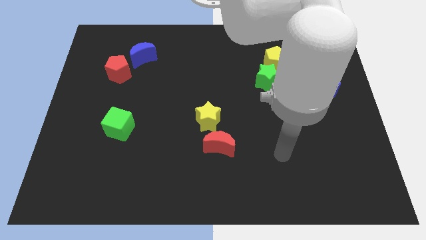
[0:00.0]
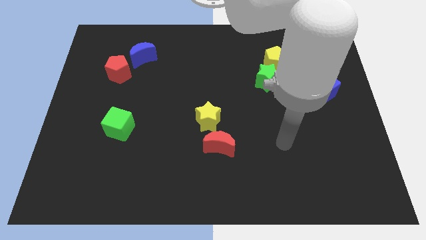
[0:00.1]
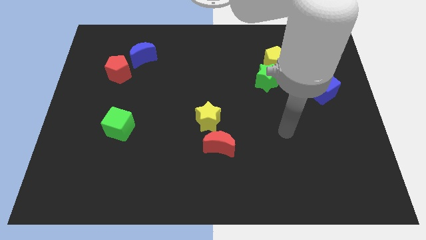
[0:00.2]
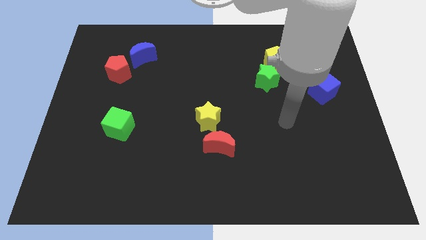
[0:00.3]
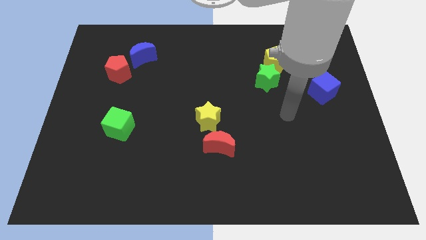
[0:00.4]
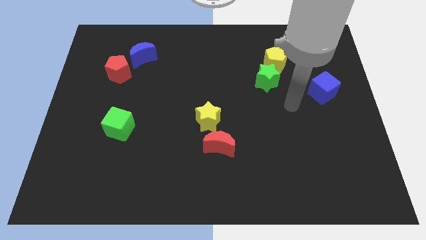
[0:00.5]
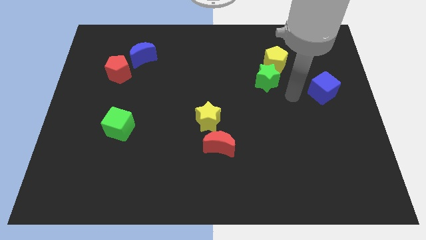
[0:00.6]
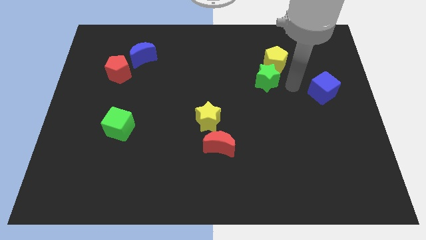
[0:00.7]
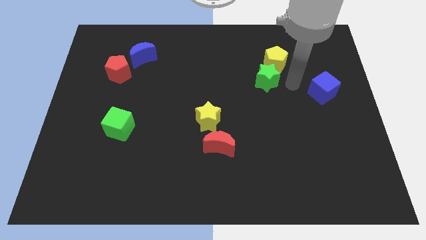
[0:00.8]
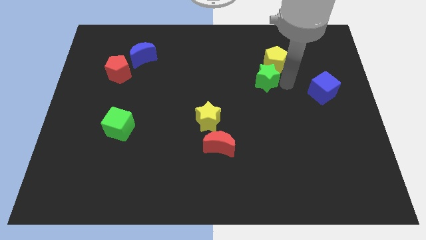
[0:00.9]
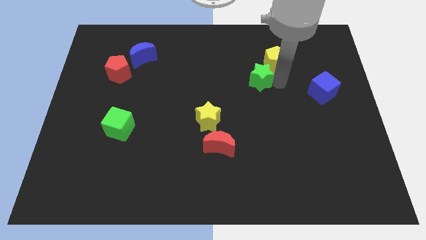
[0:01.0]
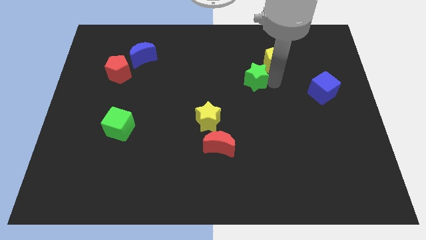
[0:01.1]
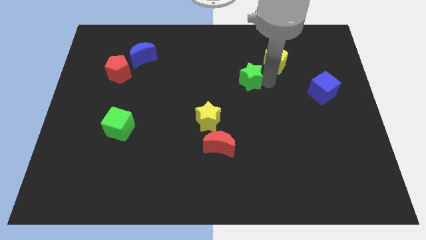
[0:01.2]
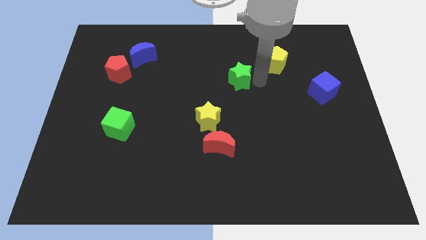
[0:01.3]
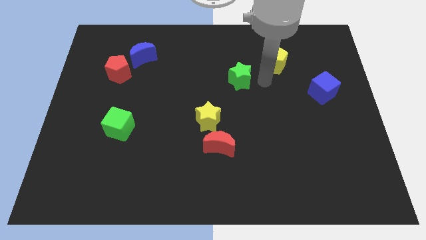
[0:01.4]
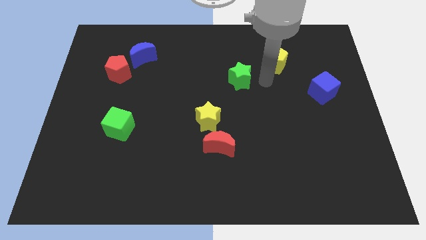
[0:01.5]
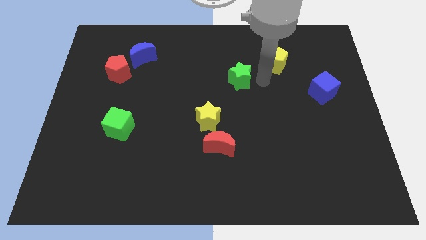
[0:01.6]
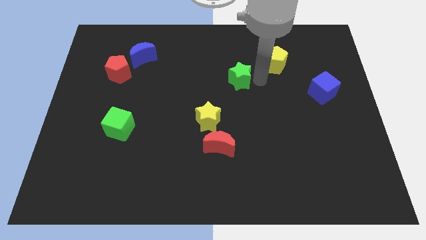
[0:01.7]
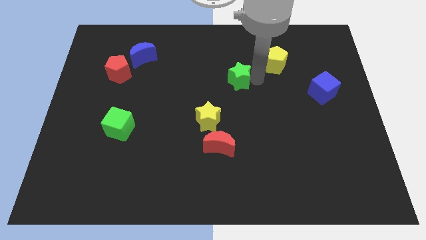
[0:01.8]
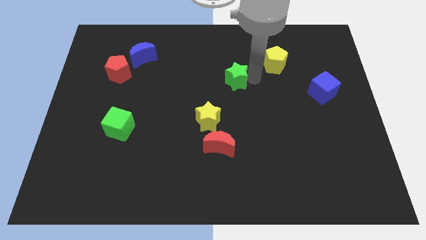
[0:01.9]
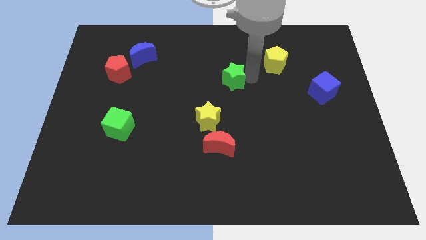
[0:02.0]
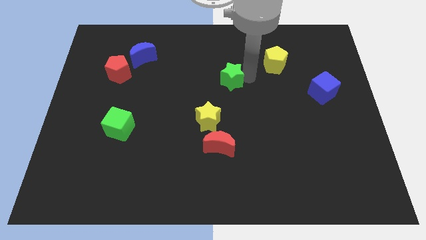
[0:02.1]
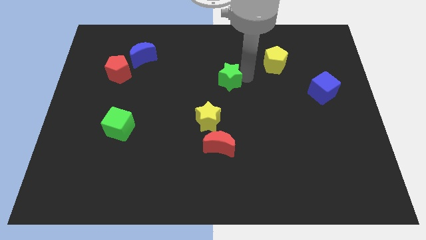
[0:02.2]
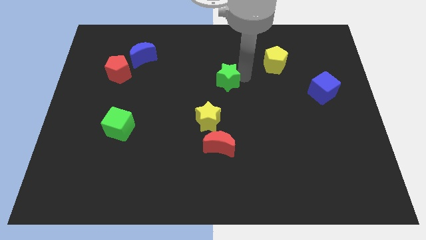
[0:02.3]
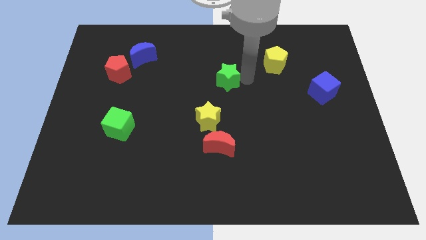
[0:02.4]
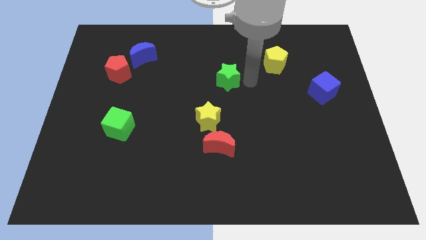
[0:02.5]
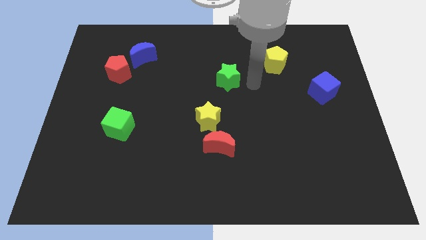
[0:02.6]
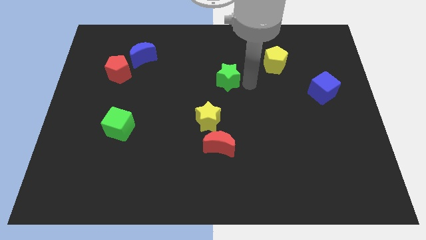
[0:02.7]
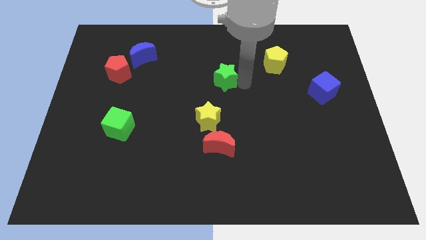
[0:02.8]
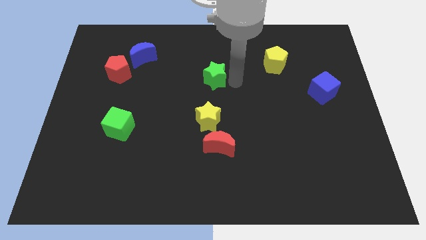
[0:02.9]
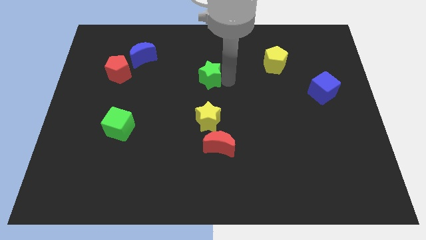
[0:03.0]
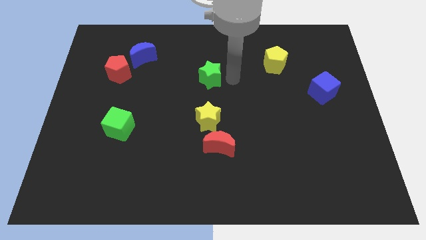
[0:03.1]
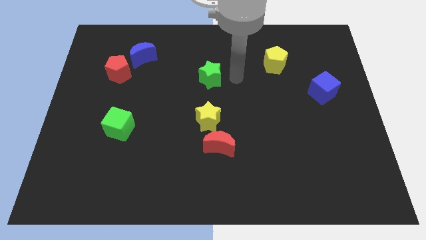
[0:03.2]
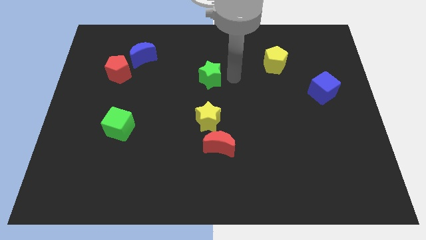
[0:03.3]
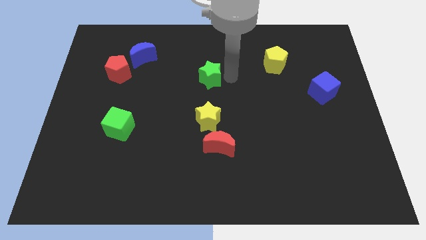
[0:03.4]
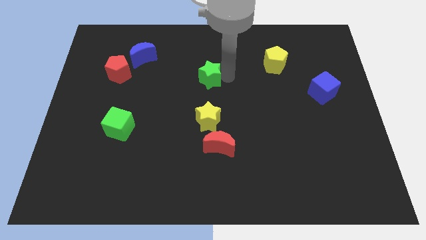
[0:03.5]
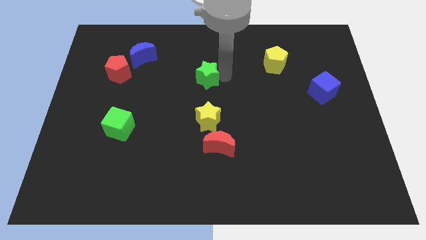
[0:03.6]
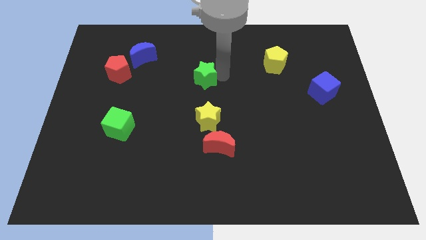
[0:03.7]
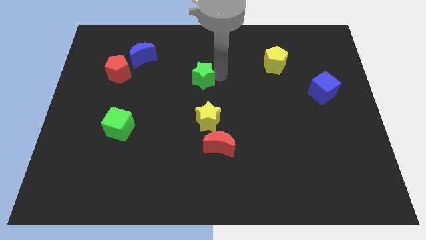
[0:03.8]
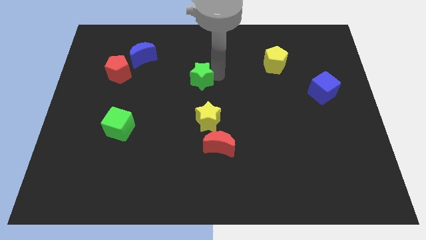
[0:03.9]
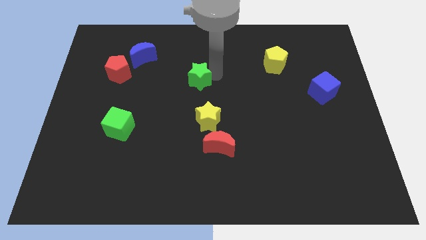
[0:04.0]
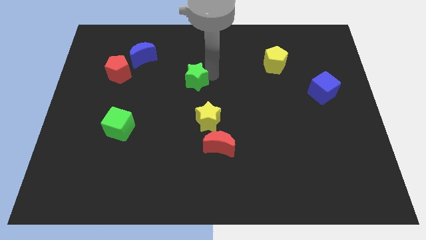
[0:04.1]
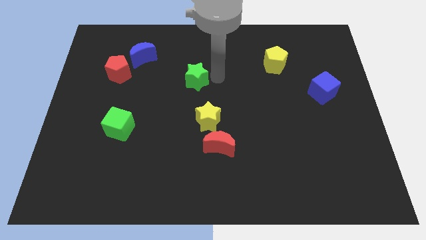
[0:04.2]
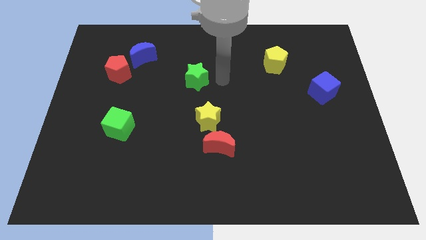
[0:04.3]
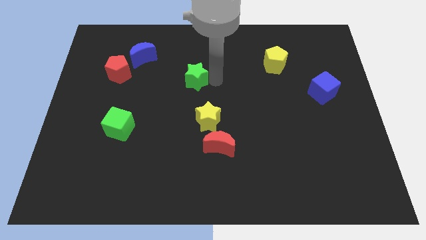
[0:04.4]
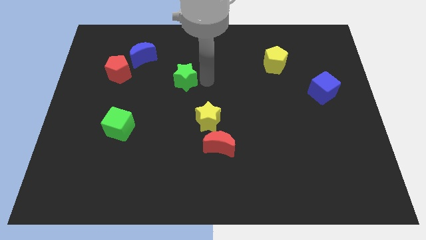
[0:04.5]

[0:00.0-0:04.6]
push the green star to the left

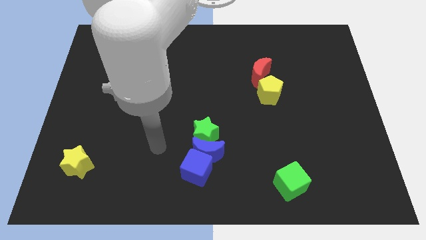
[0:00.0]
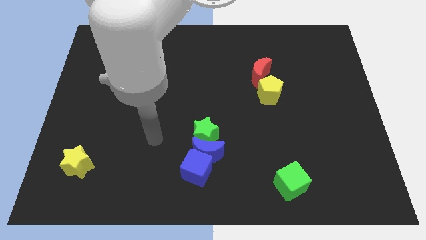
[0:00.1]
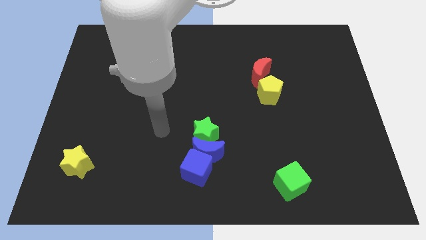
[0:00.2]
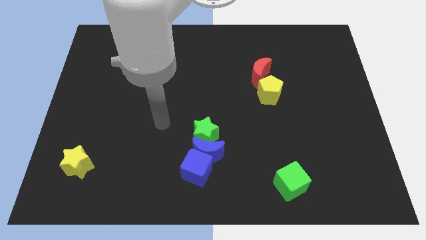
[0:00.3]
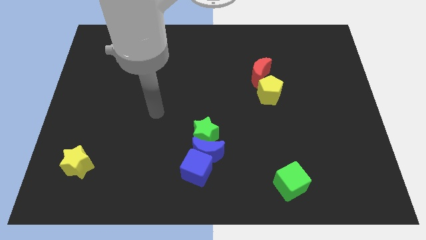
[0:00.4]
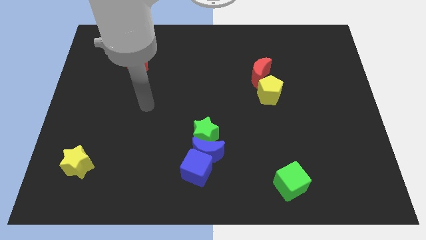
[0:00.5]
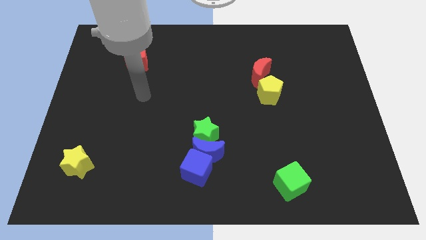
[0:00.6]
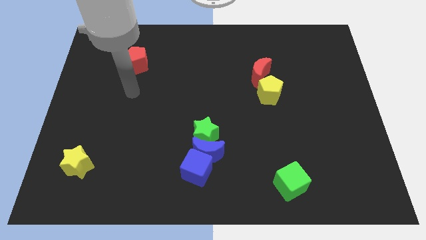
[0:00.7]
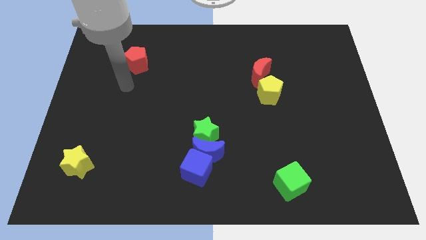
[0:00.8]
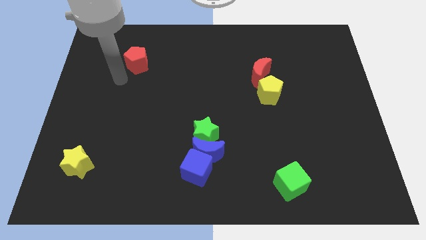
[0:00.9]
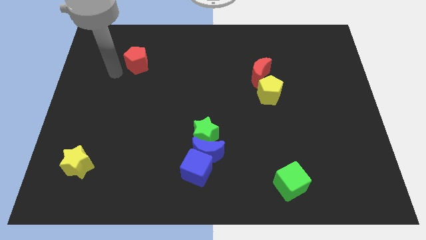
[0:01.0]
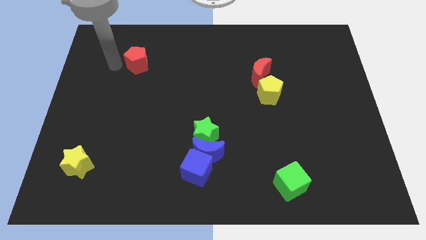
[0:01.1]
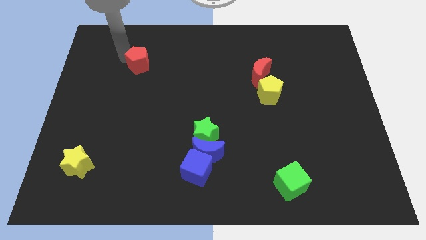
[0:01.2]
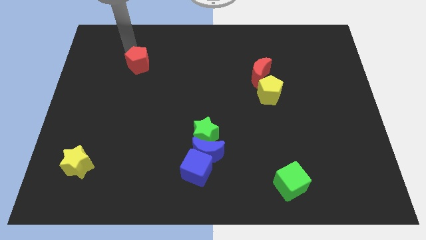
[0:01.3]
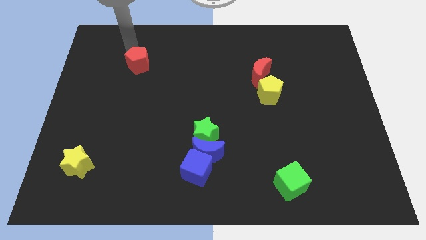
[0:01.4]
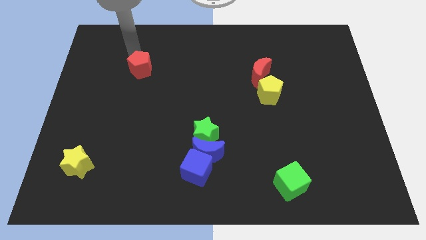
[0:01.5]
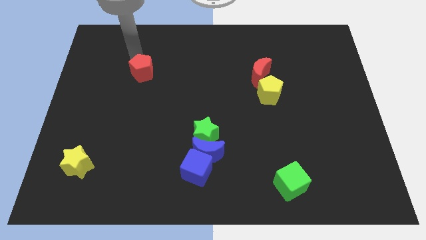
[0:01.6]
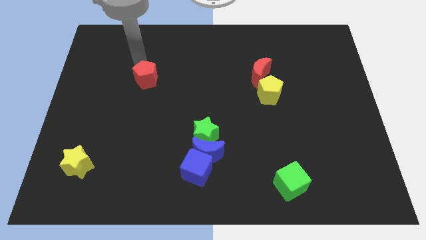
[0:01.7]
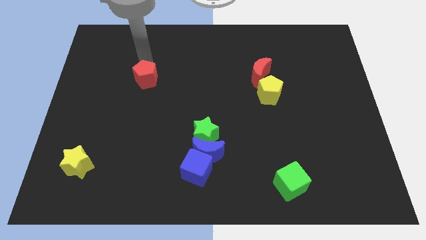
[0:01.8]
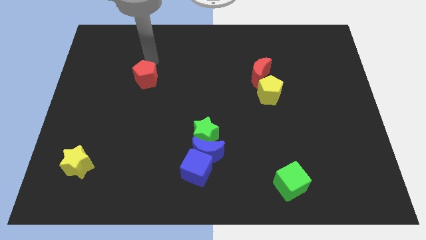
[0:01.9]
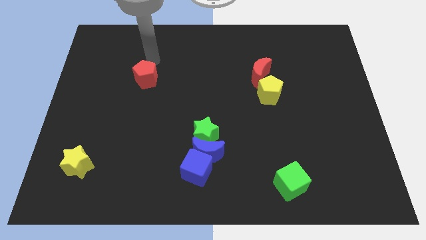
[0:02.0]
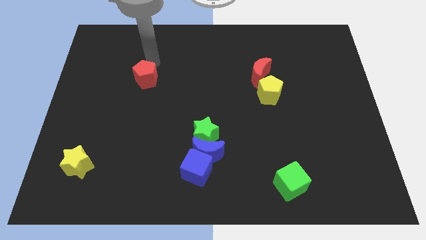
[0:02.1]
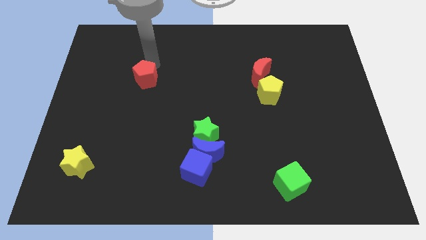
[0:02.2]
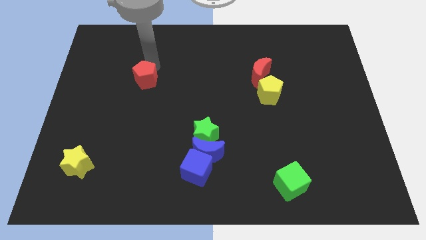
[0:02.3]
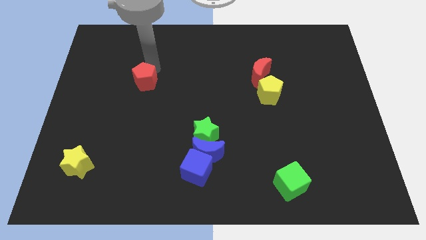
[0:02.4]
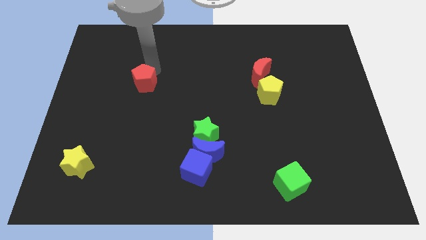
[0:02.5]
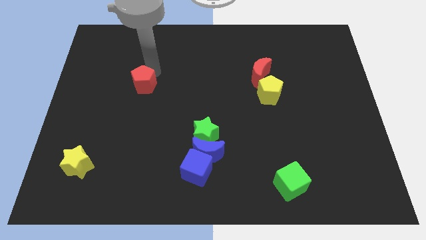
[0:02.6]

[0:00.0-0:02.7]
slightly push the red pentagon downwards

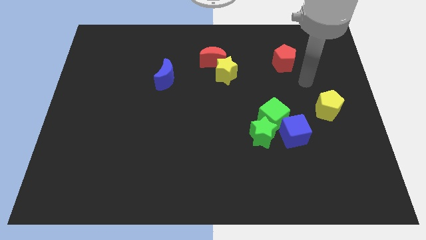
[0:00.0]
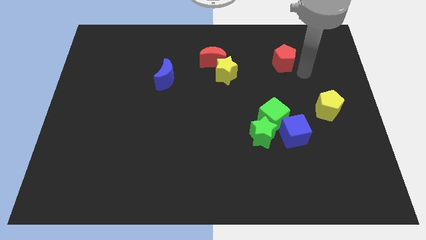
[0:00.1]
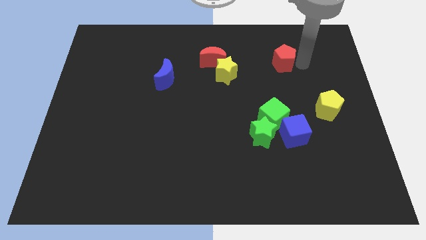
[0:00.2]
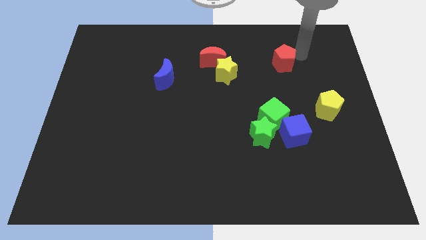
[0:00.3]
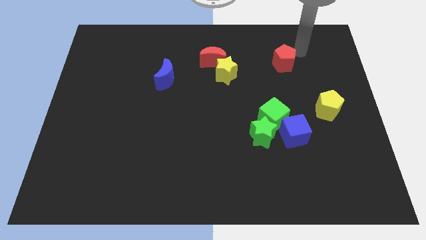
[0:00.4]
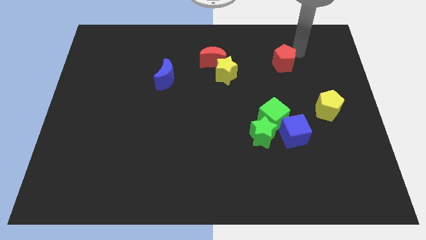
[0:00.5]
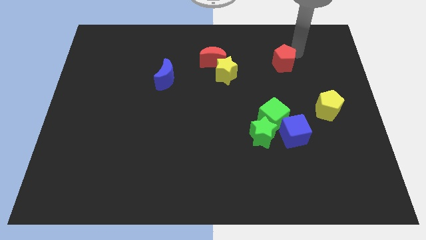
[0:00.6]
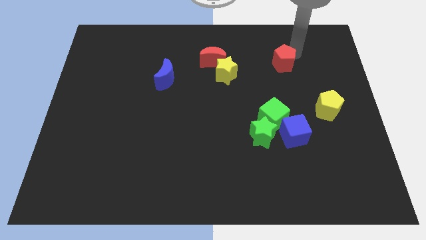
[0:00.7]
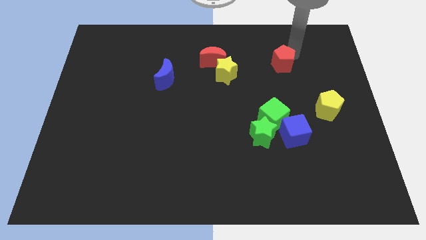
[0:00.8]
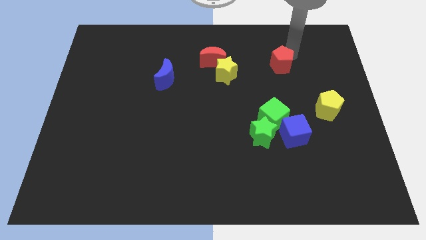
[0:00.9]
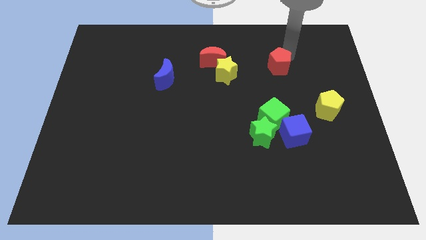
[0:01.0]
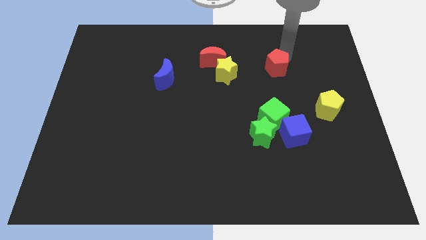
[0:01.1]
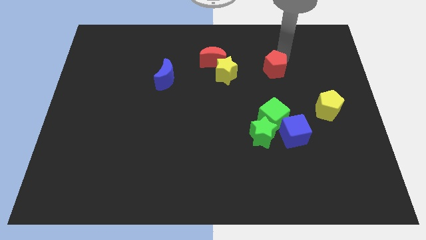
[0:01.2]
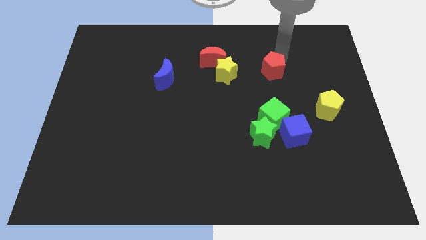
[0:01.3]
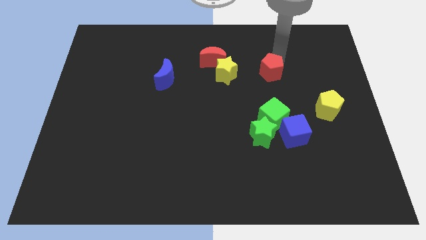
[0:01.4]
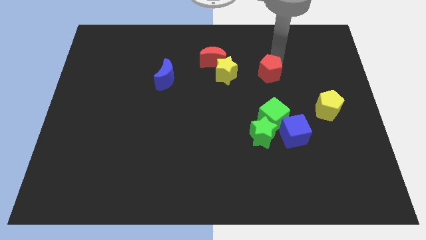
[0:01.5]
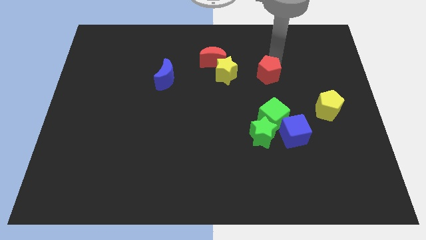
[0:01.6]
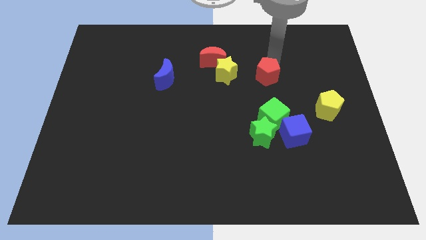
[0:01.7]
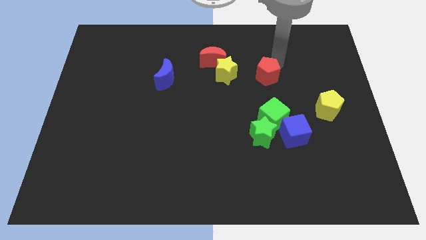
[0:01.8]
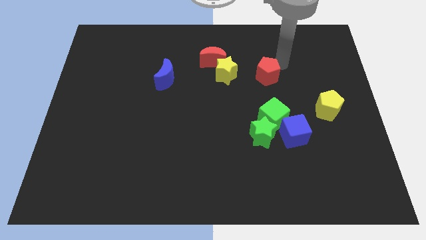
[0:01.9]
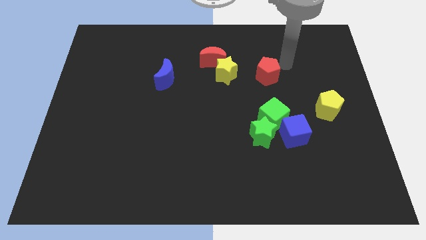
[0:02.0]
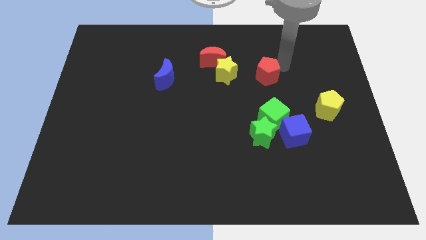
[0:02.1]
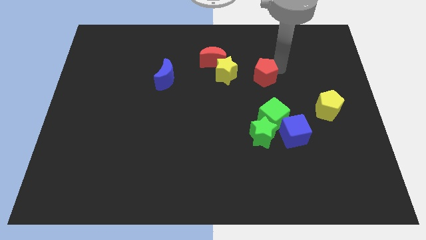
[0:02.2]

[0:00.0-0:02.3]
slide the red pentagon a little bit down and to the left diagonally
